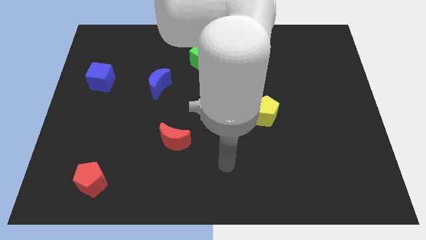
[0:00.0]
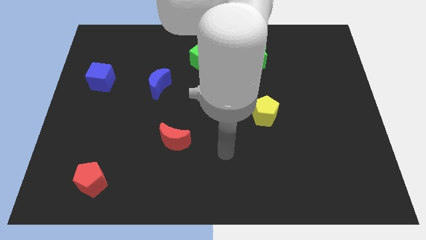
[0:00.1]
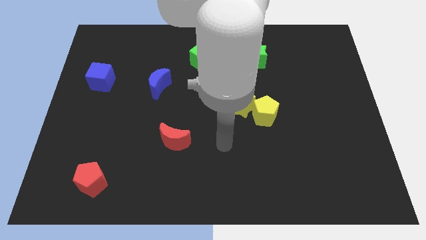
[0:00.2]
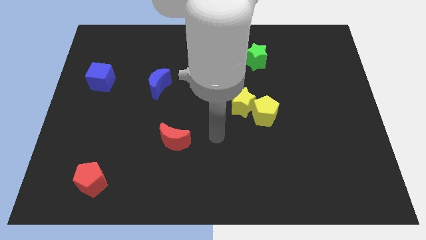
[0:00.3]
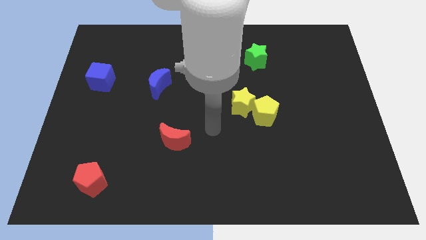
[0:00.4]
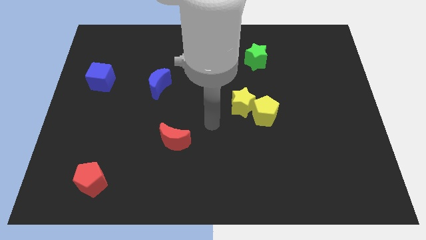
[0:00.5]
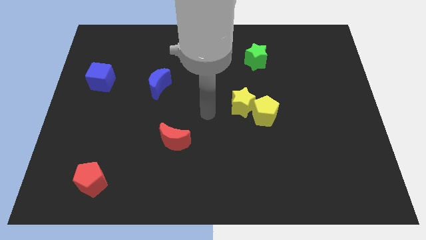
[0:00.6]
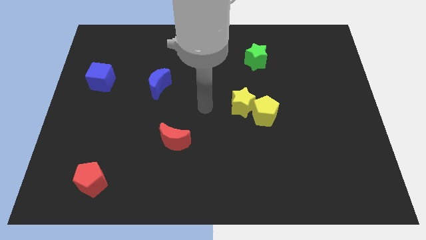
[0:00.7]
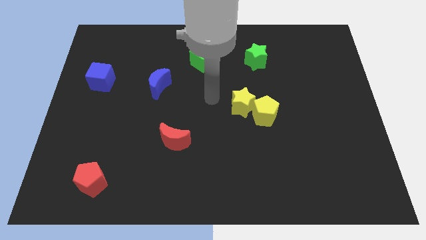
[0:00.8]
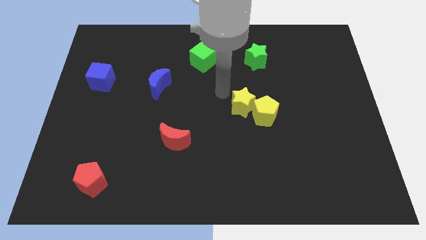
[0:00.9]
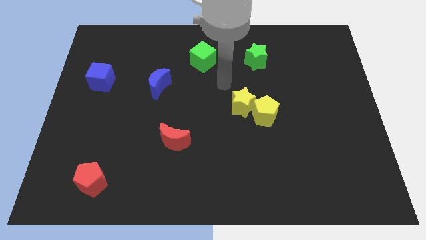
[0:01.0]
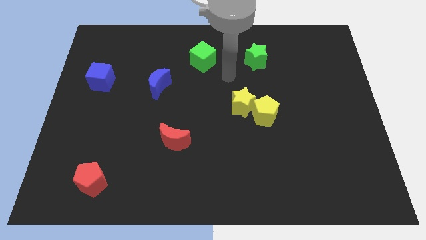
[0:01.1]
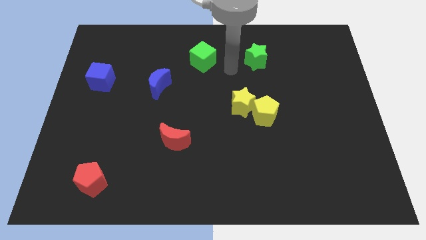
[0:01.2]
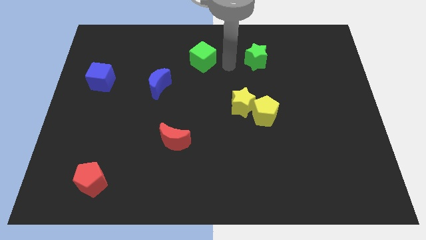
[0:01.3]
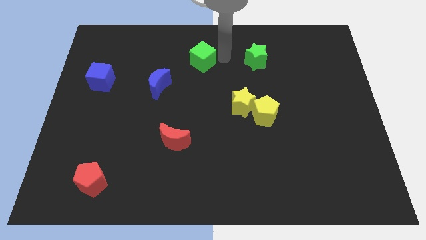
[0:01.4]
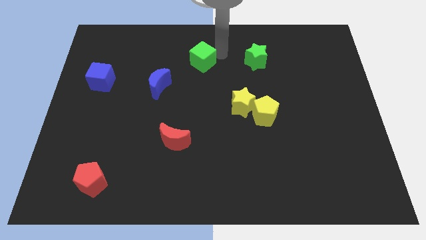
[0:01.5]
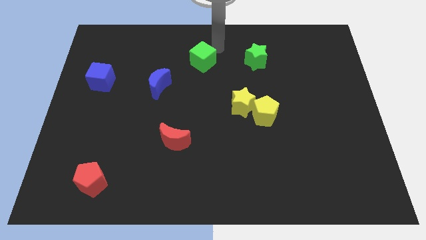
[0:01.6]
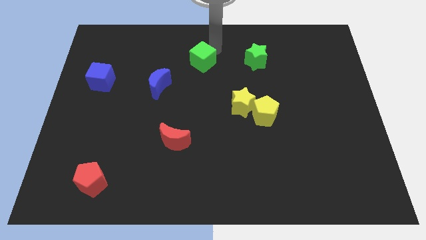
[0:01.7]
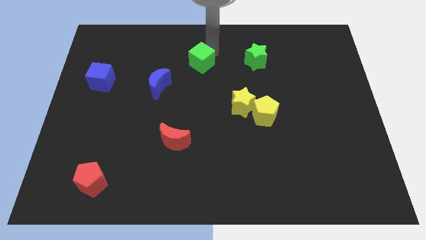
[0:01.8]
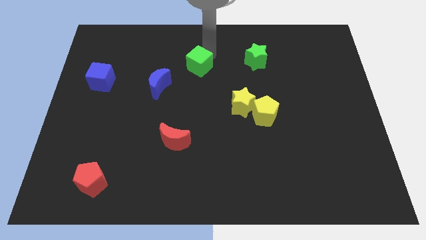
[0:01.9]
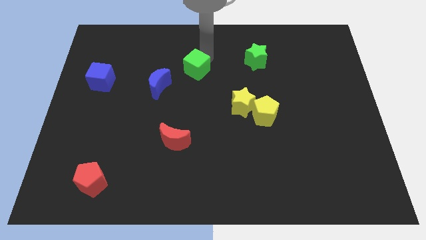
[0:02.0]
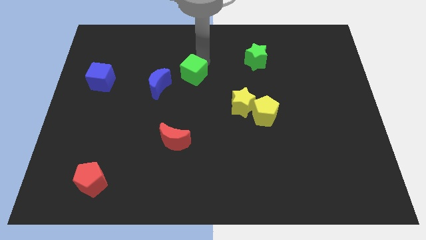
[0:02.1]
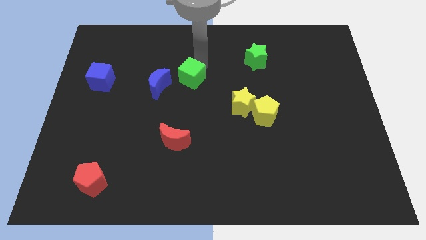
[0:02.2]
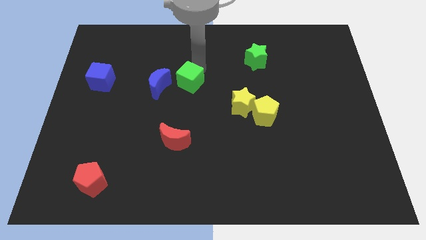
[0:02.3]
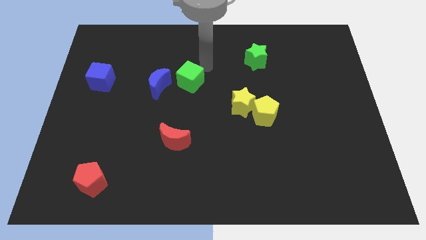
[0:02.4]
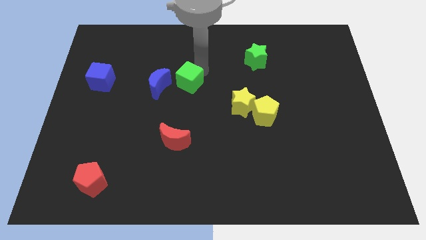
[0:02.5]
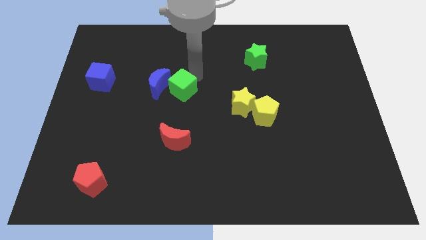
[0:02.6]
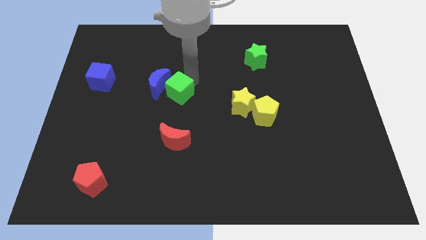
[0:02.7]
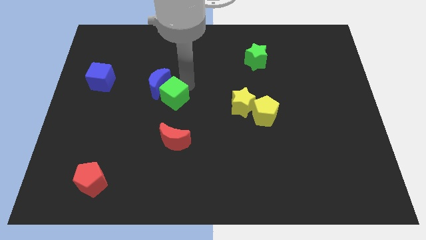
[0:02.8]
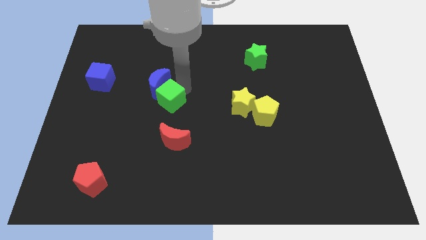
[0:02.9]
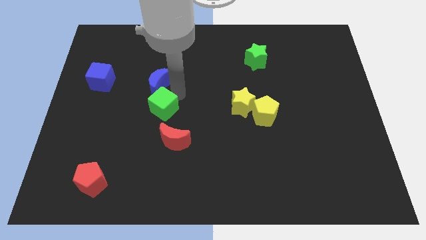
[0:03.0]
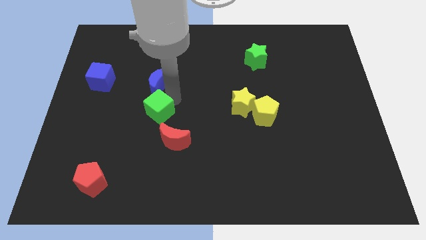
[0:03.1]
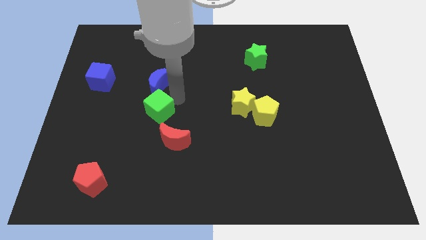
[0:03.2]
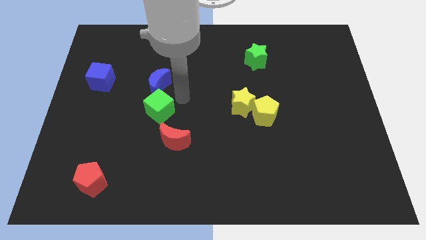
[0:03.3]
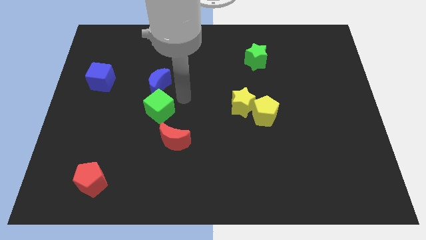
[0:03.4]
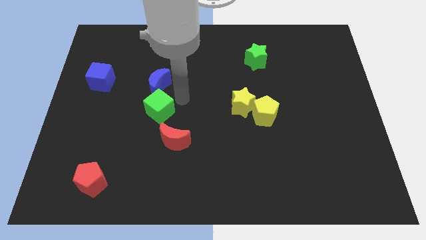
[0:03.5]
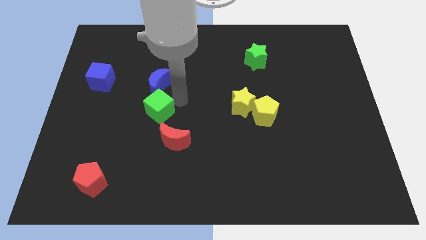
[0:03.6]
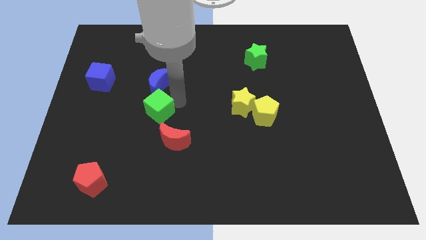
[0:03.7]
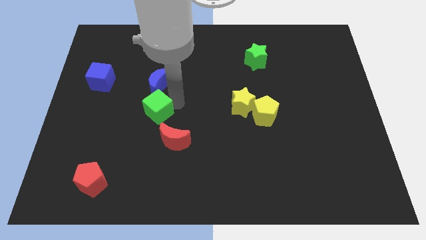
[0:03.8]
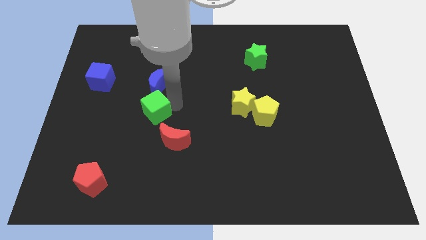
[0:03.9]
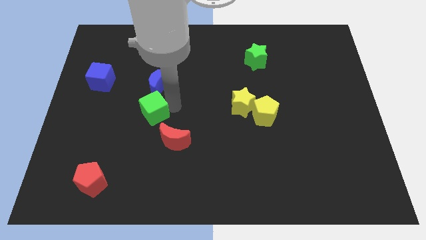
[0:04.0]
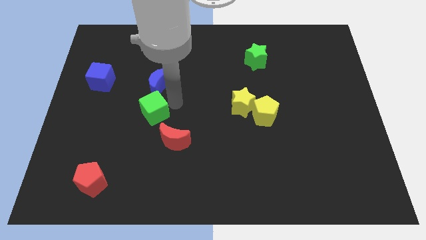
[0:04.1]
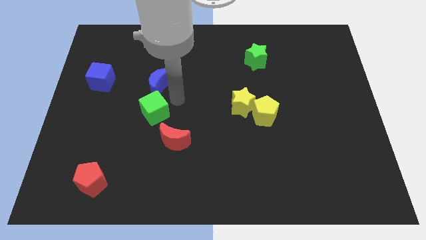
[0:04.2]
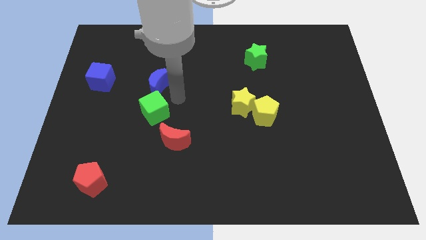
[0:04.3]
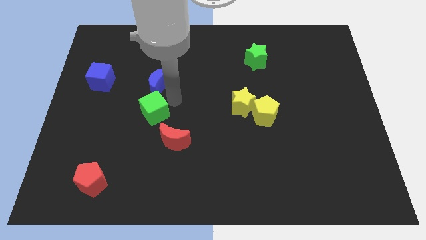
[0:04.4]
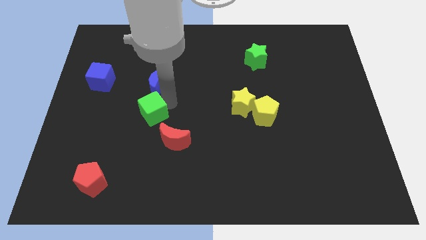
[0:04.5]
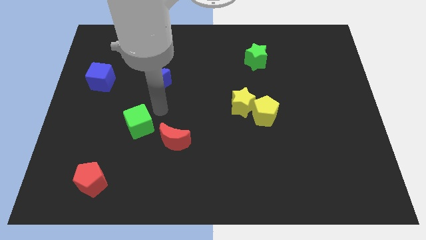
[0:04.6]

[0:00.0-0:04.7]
push the green cube diagonally down and to the left

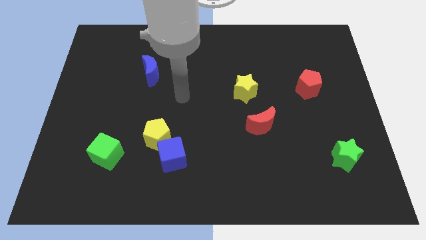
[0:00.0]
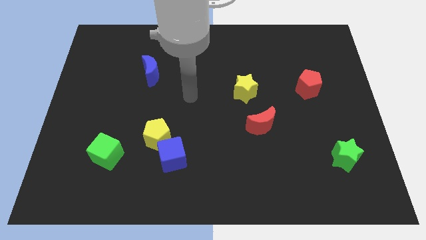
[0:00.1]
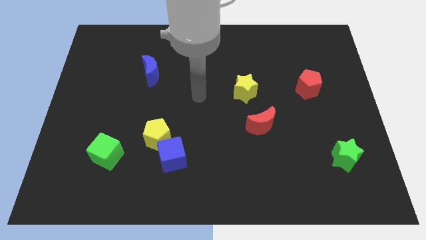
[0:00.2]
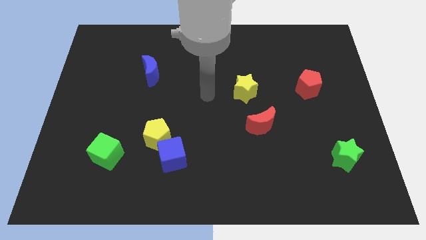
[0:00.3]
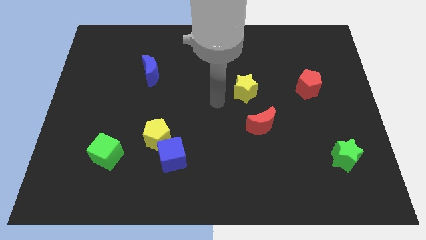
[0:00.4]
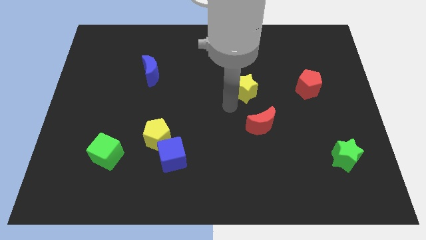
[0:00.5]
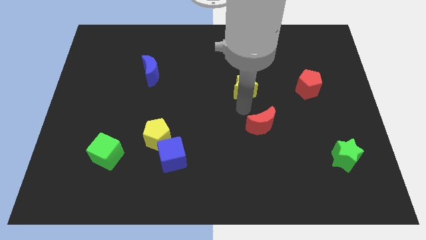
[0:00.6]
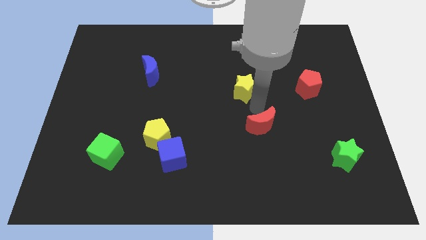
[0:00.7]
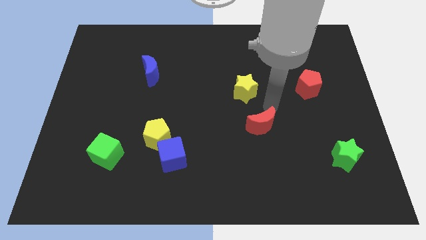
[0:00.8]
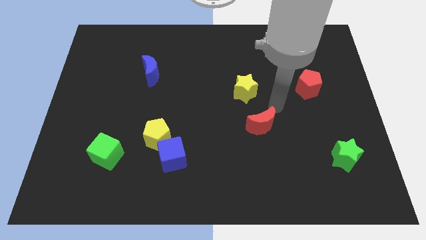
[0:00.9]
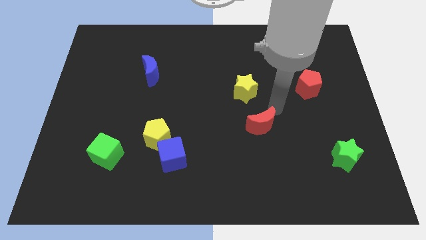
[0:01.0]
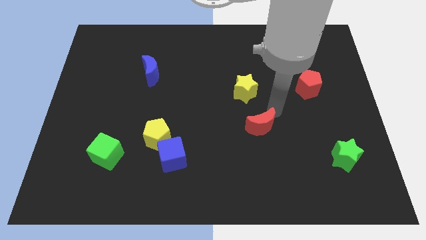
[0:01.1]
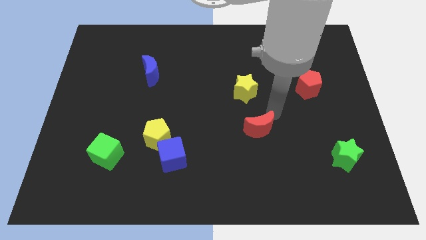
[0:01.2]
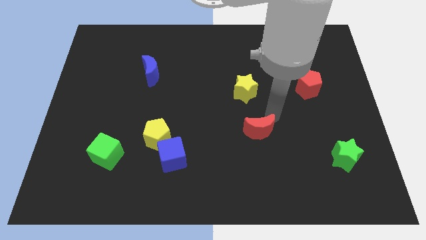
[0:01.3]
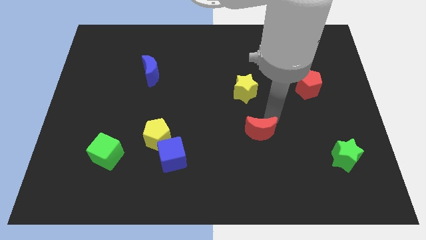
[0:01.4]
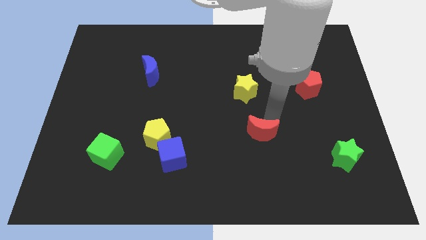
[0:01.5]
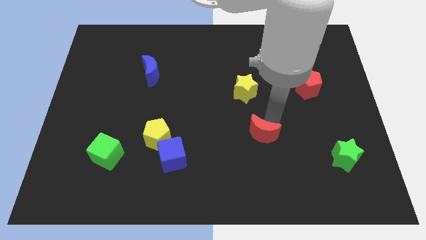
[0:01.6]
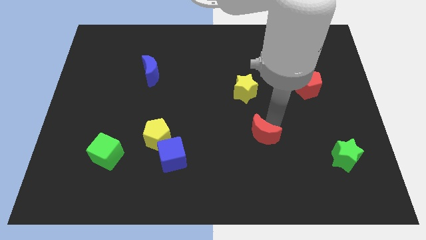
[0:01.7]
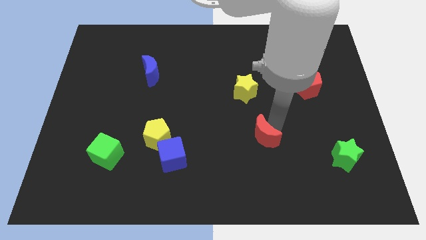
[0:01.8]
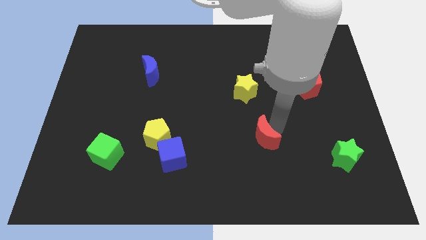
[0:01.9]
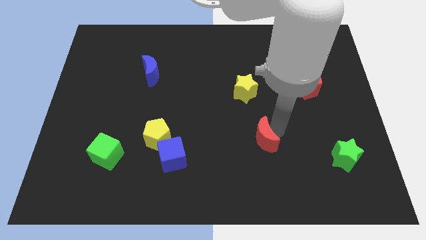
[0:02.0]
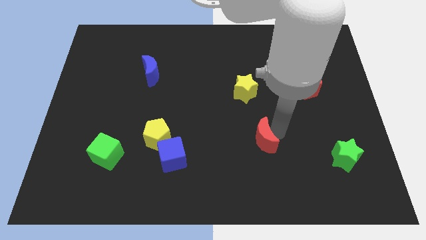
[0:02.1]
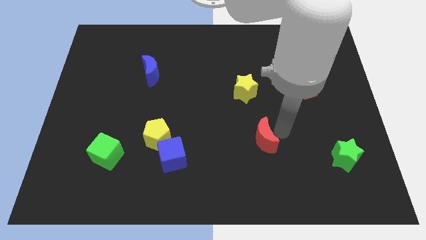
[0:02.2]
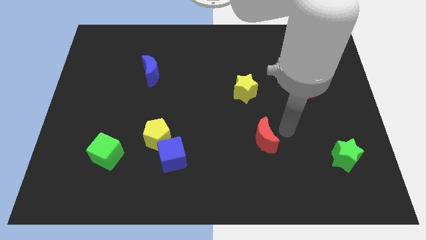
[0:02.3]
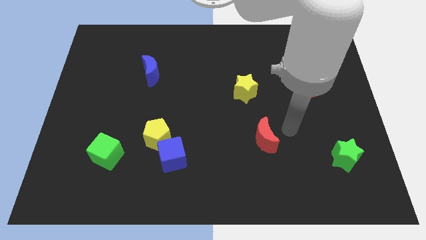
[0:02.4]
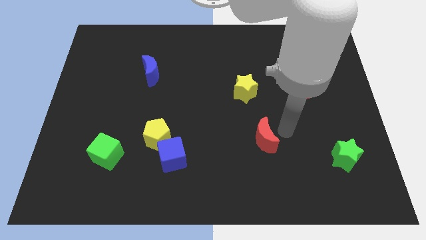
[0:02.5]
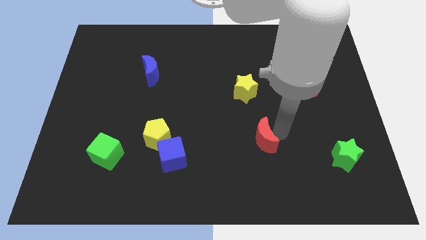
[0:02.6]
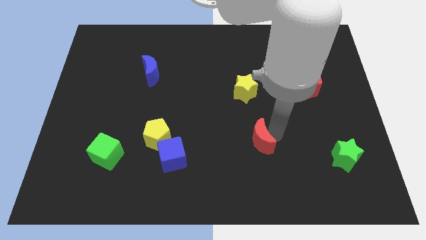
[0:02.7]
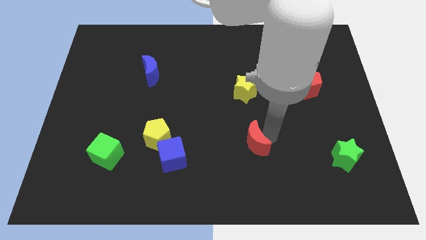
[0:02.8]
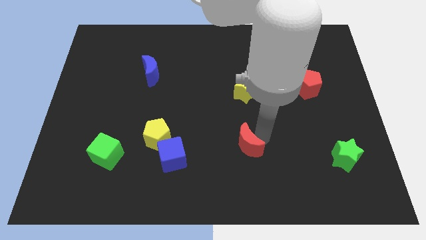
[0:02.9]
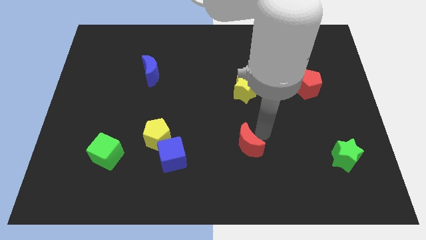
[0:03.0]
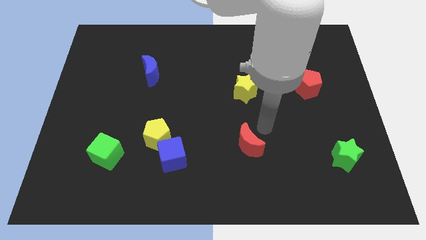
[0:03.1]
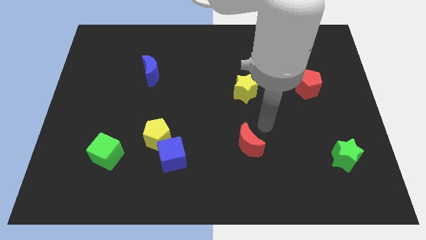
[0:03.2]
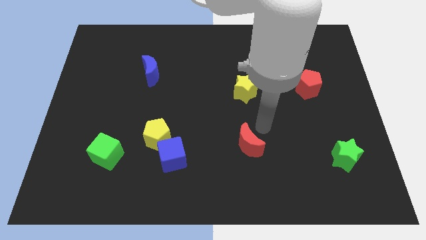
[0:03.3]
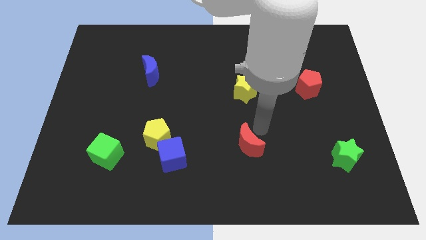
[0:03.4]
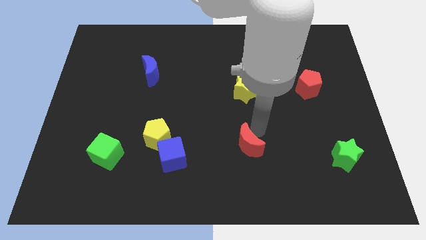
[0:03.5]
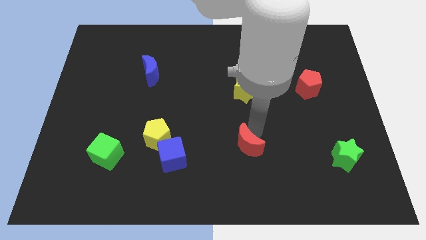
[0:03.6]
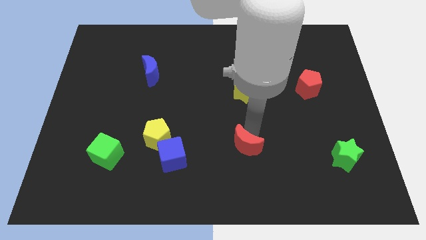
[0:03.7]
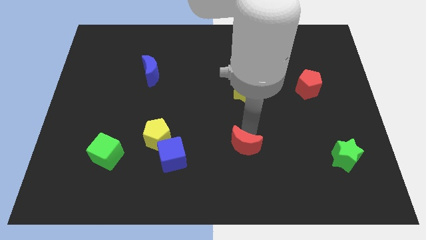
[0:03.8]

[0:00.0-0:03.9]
slightly push the red moon downwards and then to the left
